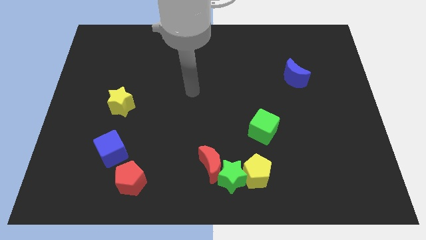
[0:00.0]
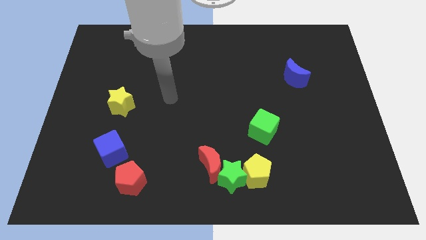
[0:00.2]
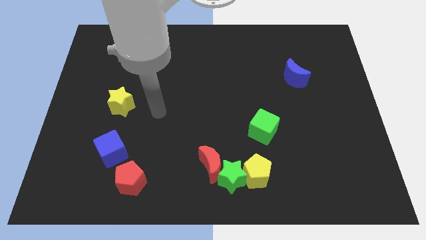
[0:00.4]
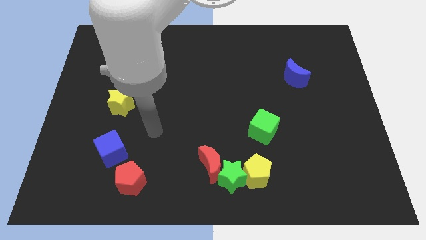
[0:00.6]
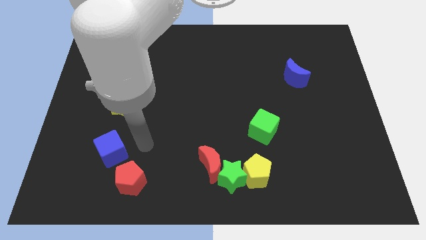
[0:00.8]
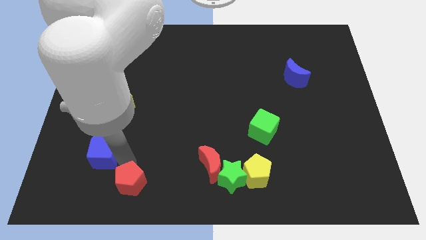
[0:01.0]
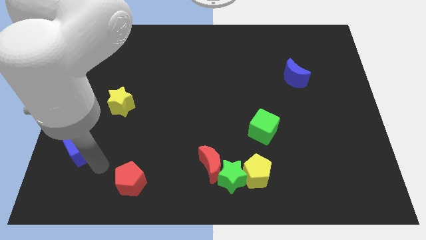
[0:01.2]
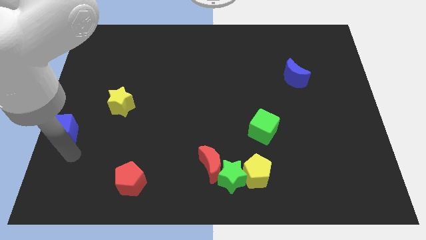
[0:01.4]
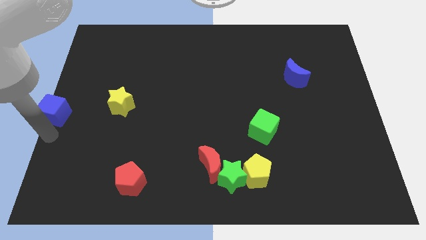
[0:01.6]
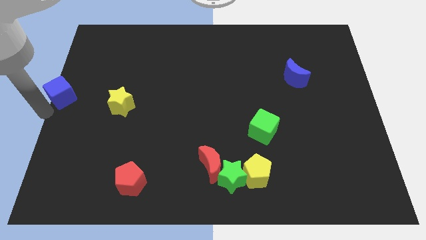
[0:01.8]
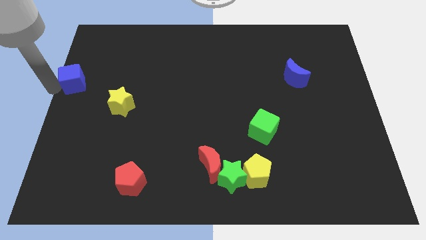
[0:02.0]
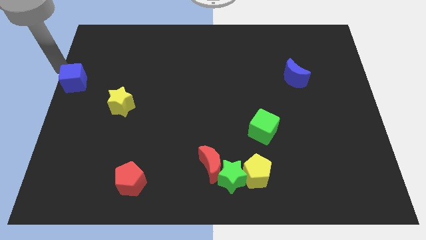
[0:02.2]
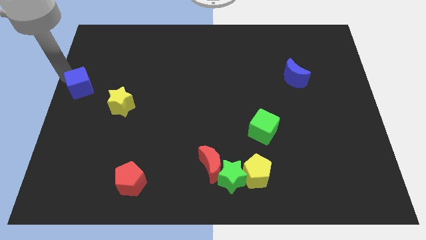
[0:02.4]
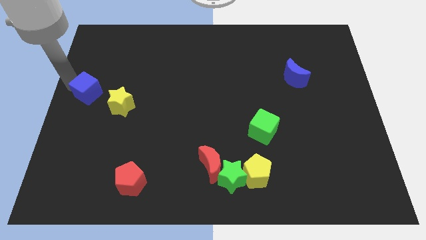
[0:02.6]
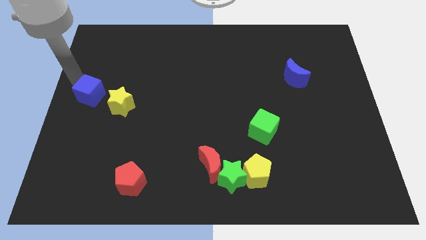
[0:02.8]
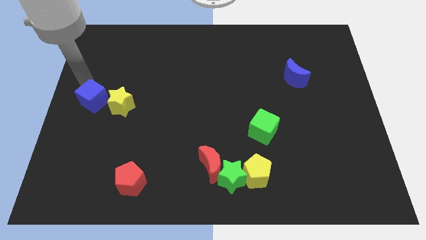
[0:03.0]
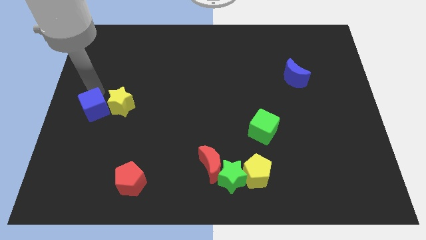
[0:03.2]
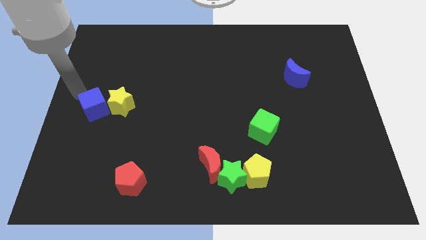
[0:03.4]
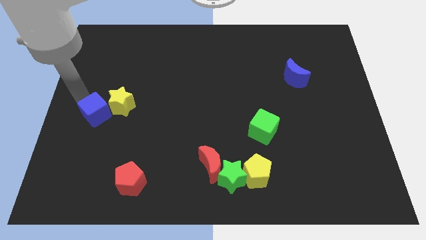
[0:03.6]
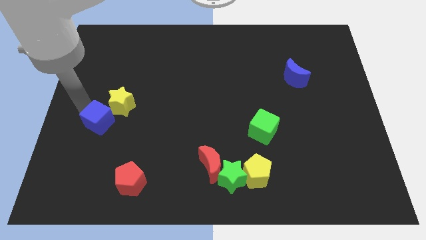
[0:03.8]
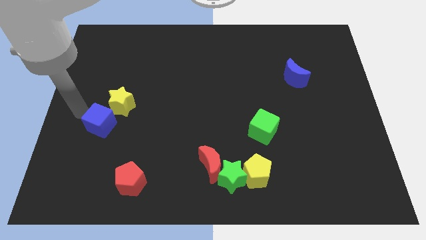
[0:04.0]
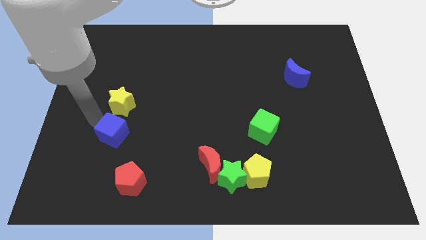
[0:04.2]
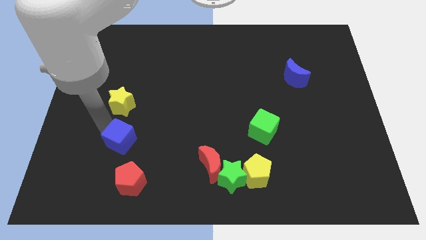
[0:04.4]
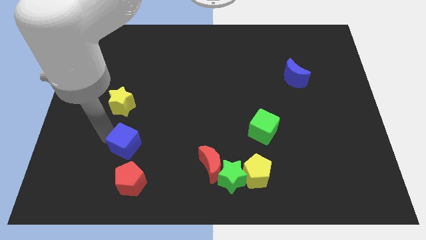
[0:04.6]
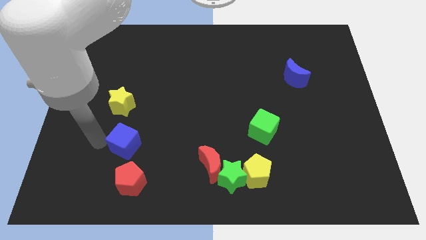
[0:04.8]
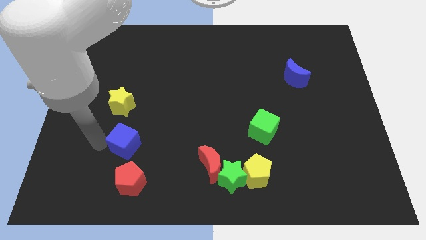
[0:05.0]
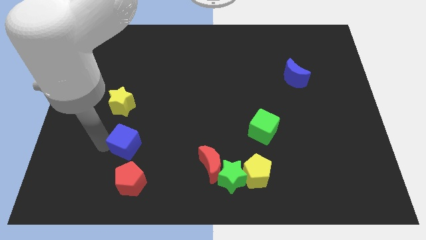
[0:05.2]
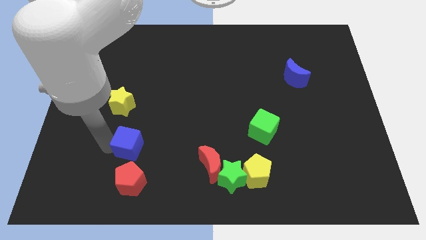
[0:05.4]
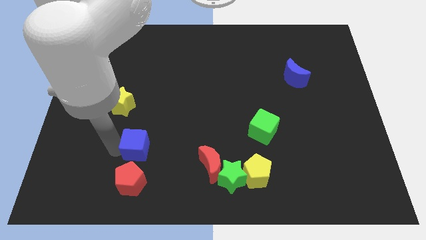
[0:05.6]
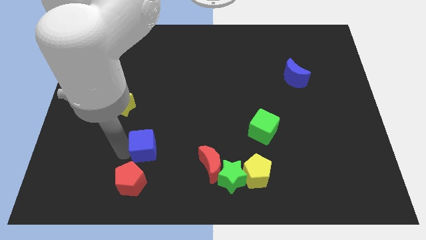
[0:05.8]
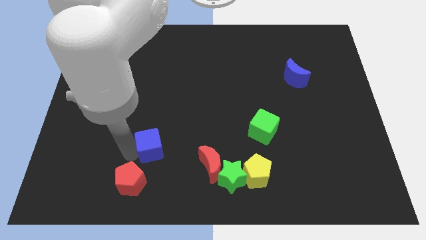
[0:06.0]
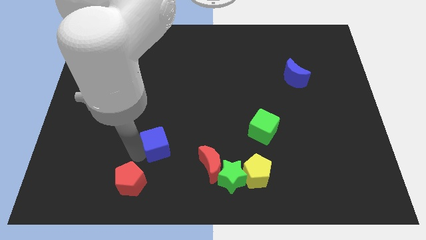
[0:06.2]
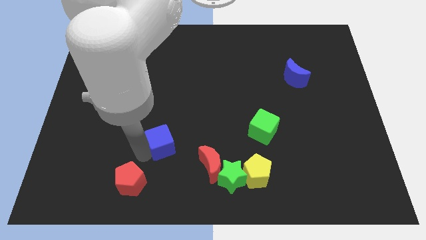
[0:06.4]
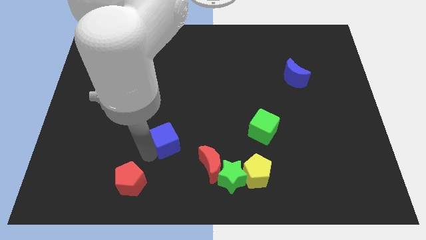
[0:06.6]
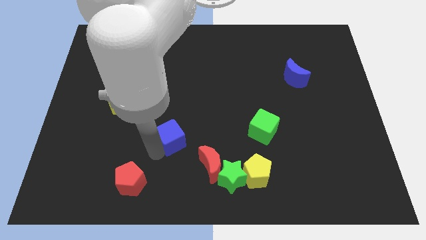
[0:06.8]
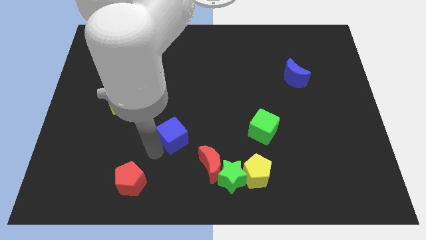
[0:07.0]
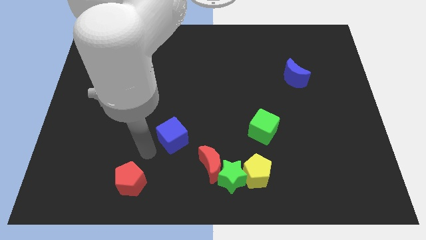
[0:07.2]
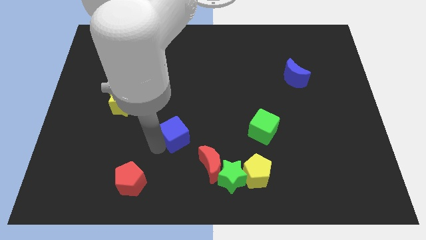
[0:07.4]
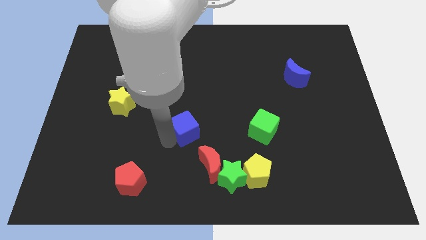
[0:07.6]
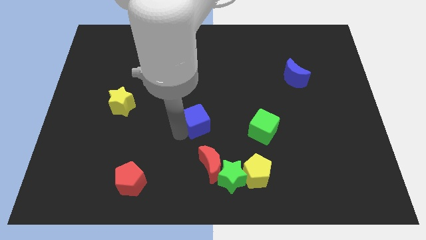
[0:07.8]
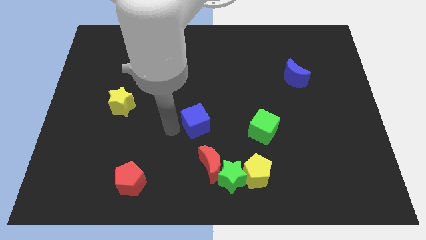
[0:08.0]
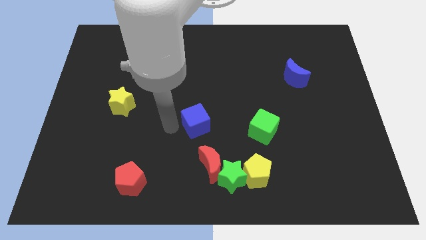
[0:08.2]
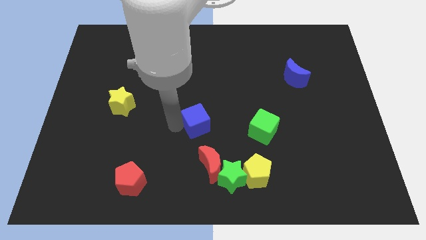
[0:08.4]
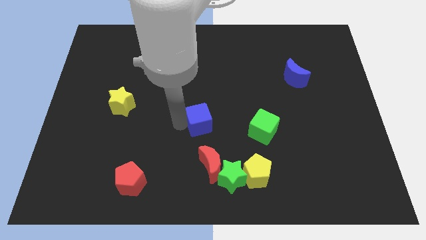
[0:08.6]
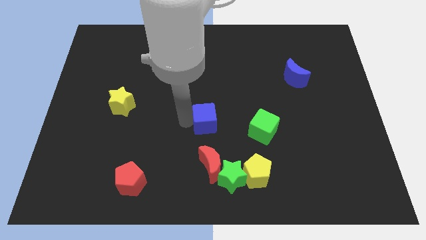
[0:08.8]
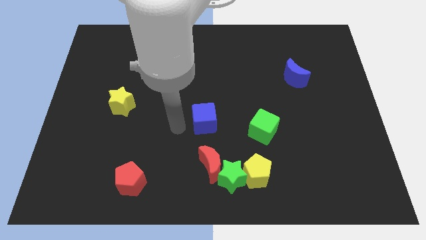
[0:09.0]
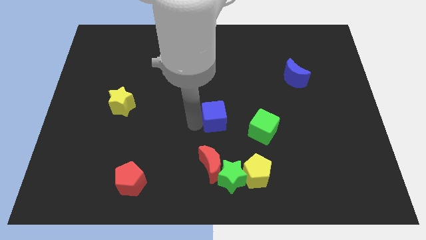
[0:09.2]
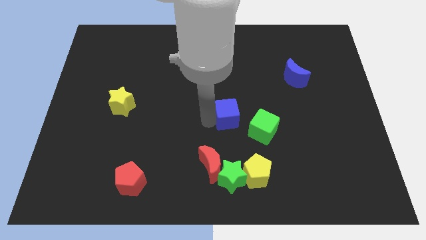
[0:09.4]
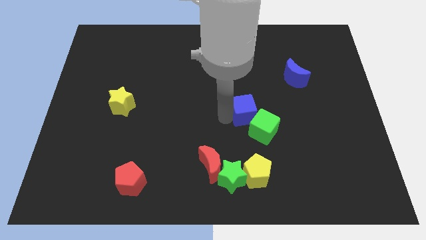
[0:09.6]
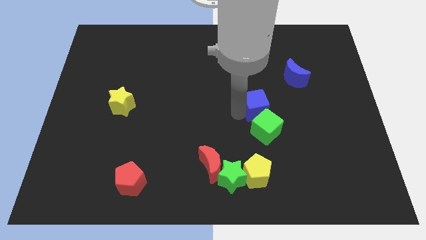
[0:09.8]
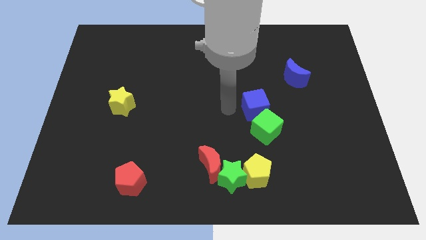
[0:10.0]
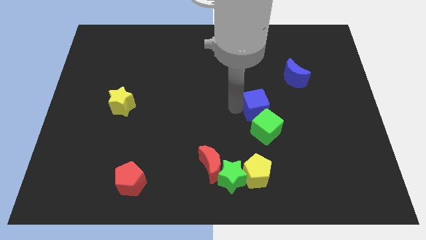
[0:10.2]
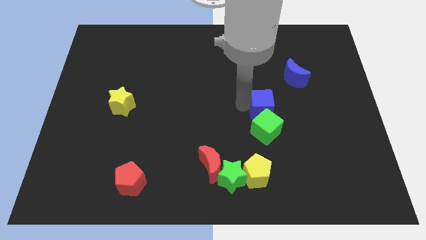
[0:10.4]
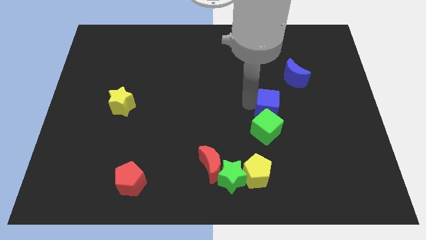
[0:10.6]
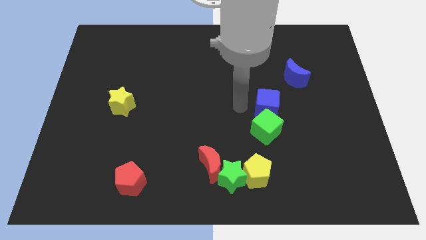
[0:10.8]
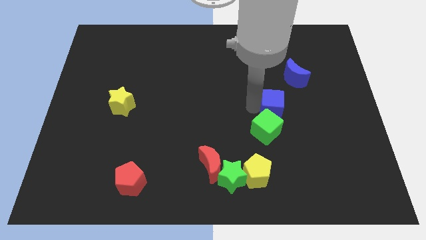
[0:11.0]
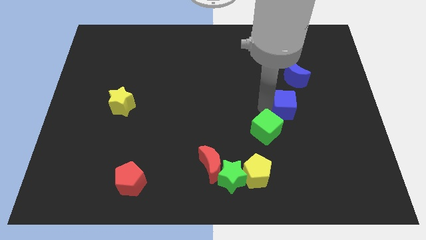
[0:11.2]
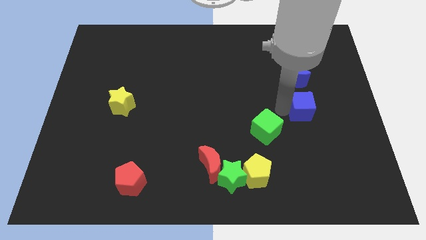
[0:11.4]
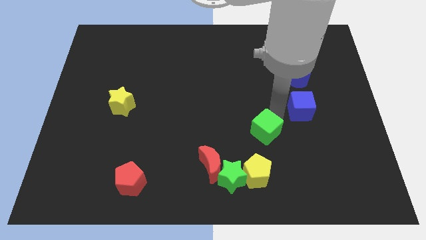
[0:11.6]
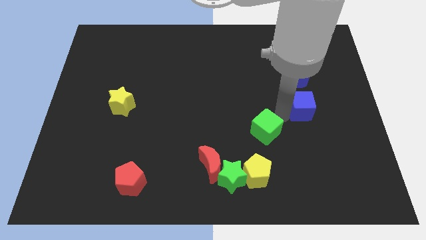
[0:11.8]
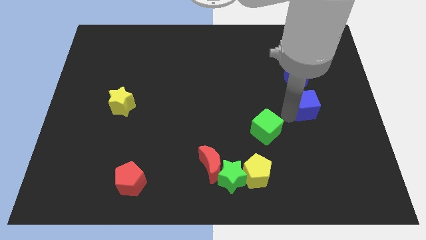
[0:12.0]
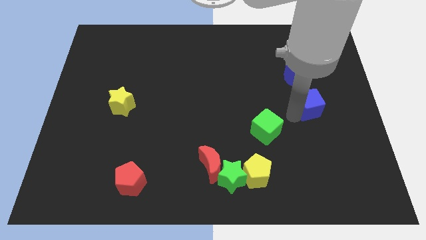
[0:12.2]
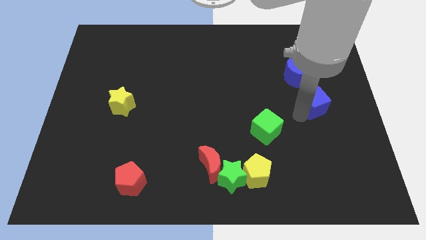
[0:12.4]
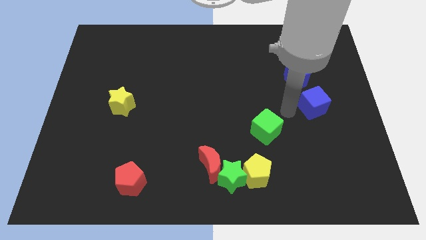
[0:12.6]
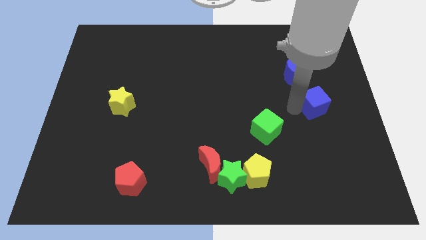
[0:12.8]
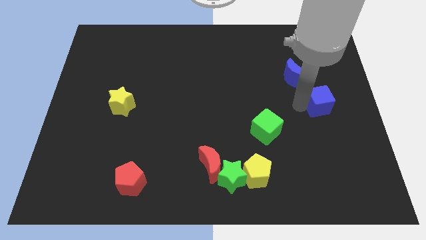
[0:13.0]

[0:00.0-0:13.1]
move the blue cube to the right side of the board
